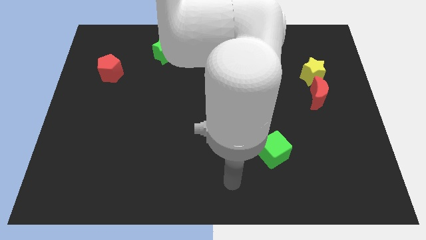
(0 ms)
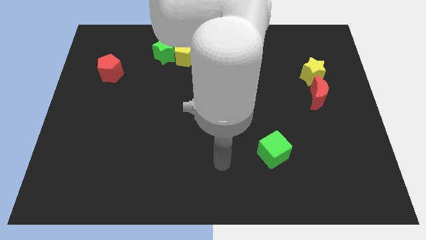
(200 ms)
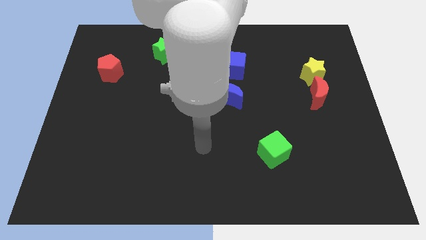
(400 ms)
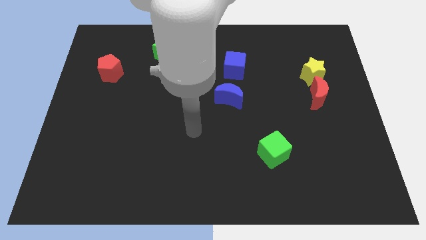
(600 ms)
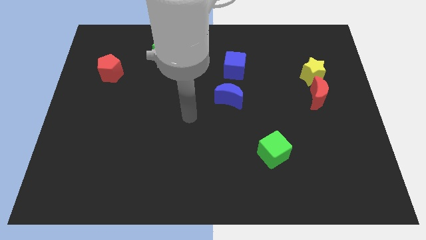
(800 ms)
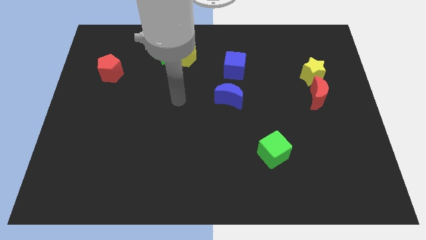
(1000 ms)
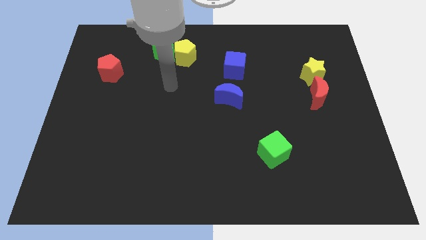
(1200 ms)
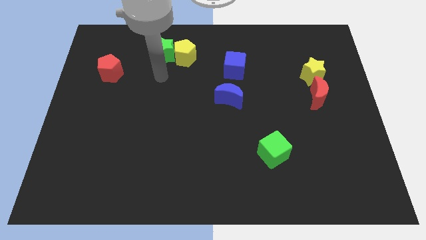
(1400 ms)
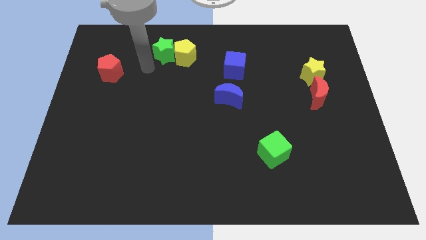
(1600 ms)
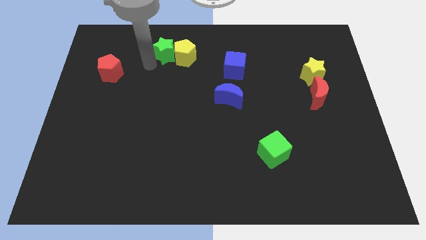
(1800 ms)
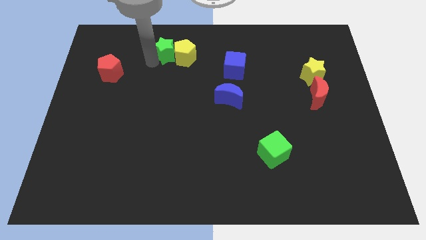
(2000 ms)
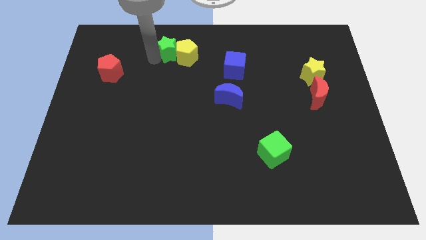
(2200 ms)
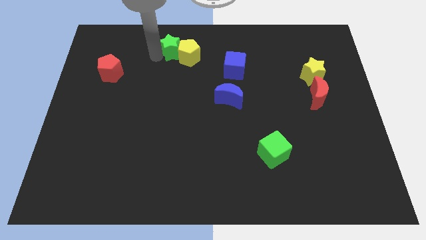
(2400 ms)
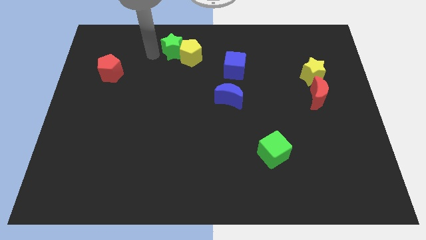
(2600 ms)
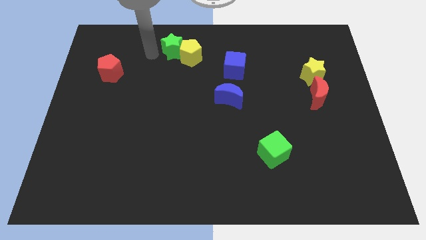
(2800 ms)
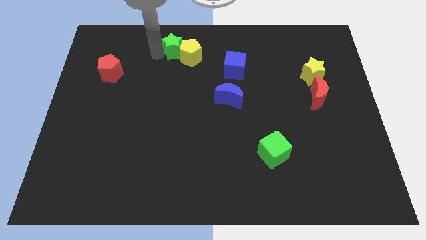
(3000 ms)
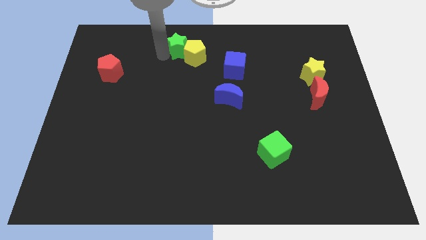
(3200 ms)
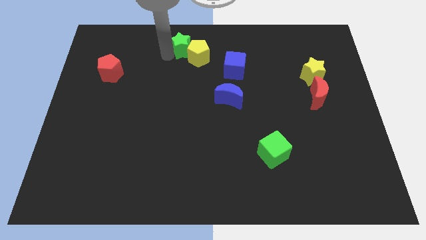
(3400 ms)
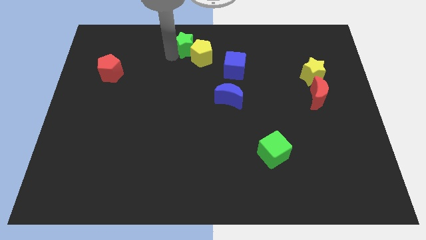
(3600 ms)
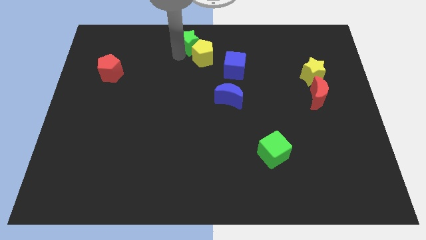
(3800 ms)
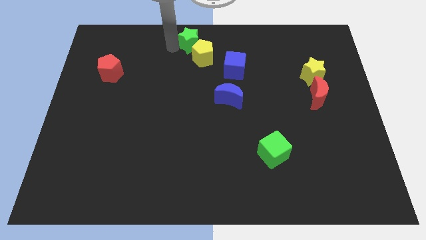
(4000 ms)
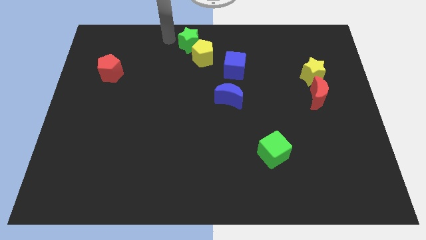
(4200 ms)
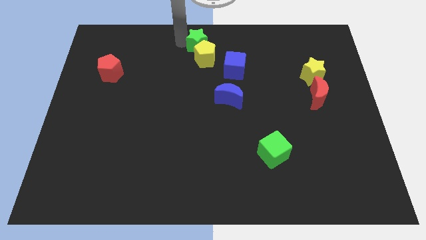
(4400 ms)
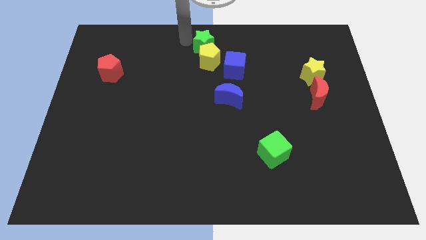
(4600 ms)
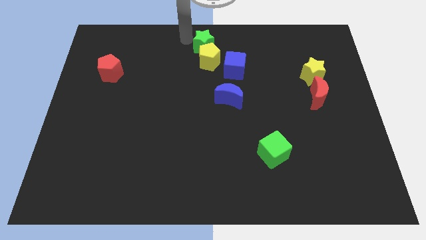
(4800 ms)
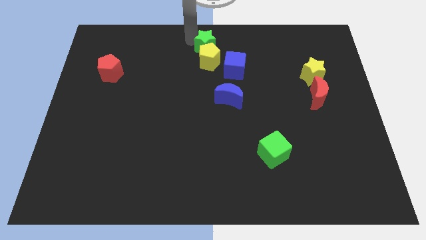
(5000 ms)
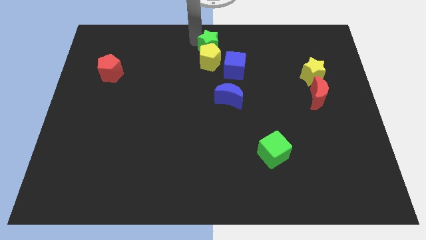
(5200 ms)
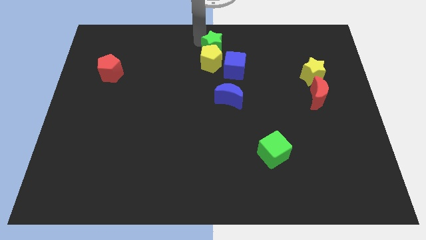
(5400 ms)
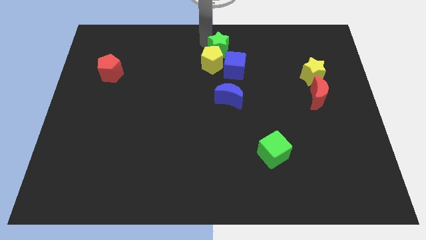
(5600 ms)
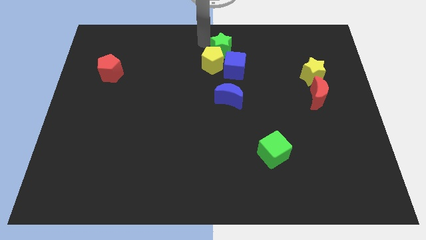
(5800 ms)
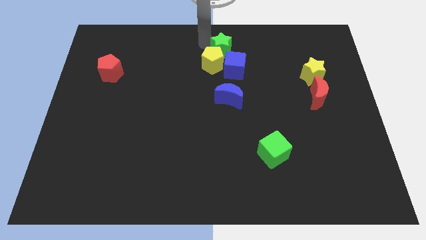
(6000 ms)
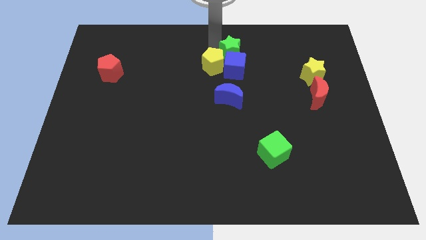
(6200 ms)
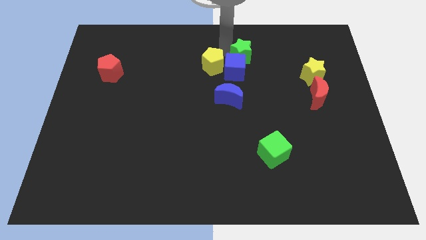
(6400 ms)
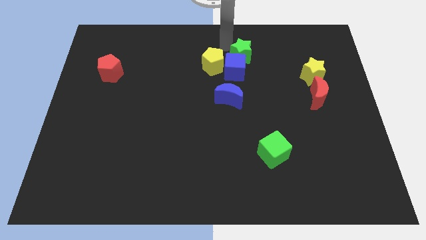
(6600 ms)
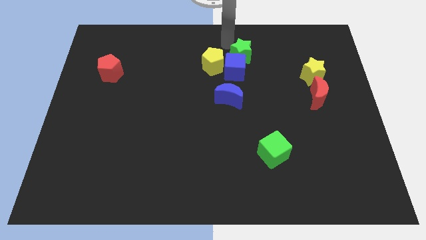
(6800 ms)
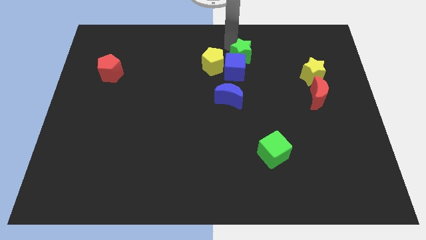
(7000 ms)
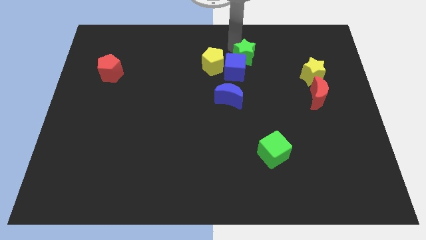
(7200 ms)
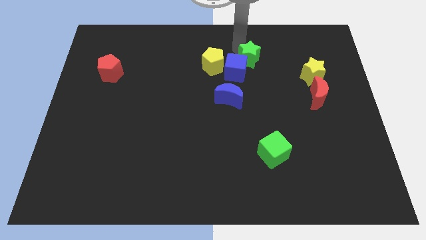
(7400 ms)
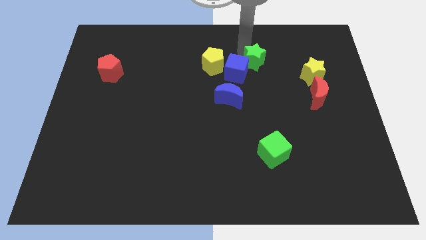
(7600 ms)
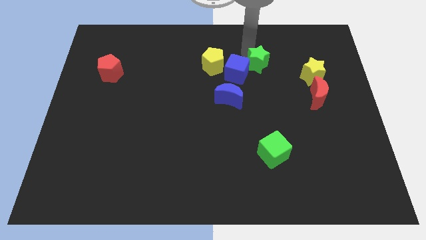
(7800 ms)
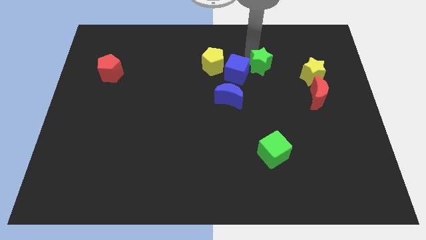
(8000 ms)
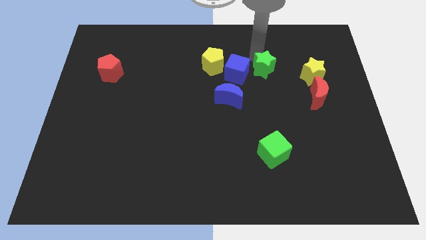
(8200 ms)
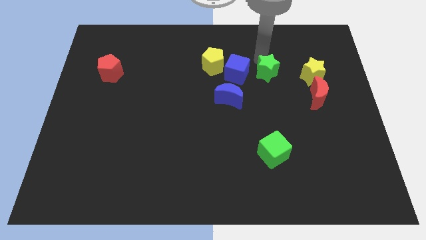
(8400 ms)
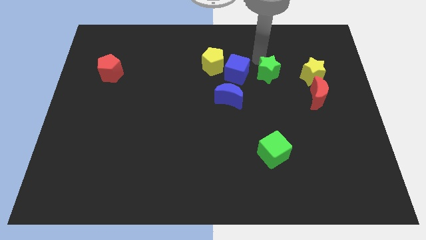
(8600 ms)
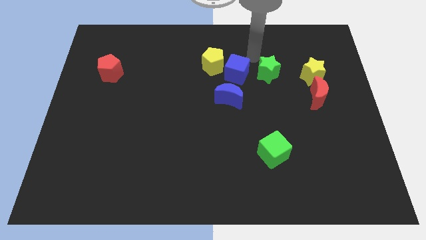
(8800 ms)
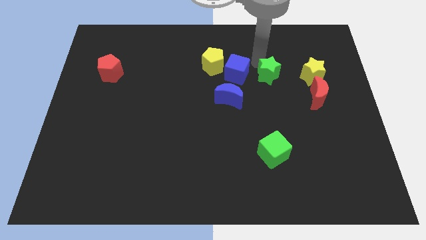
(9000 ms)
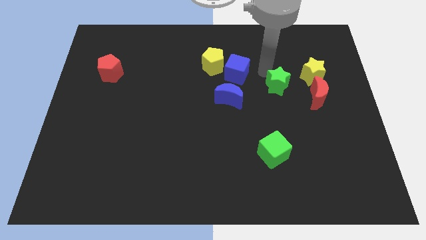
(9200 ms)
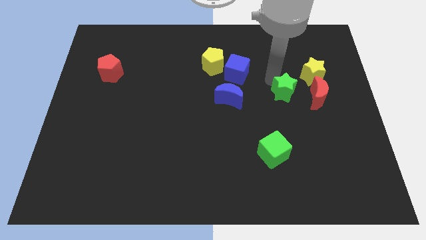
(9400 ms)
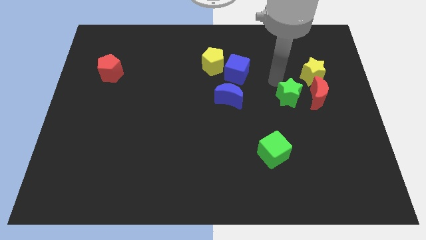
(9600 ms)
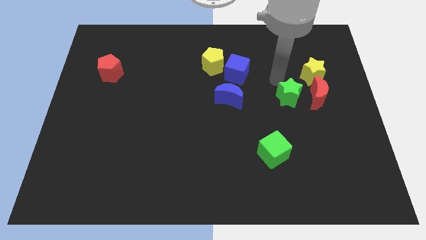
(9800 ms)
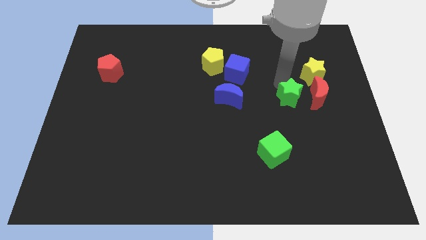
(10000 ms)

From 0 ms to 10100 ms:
slide the green star to the bottom left of the red moon

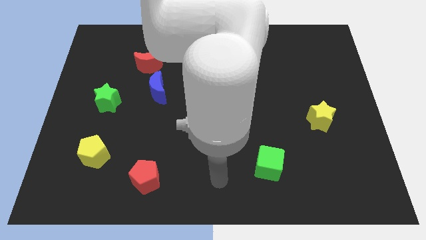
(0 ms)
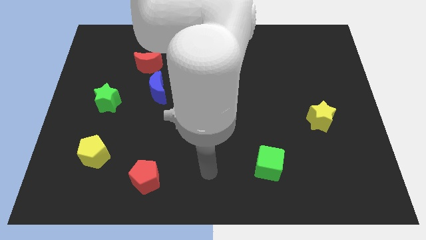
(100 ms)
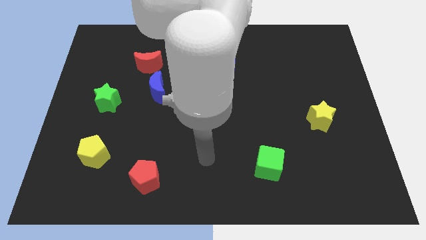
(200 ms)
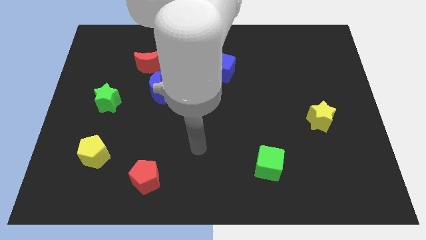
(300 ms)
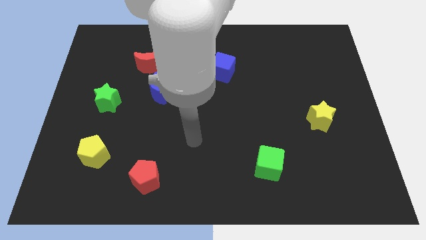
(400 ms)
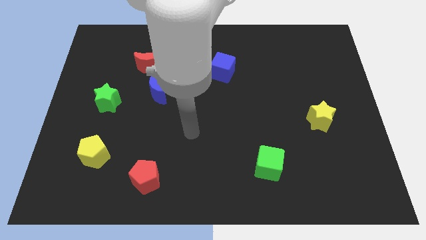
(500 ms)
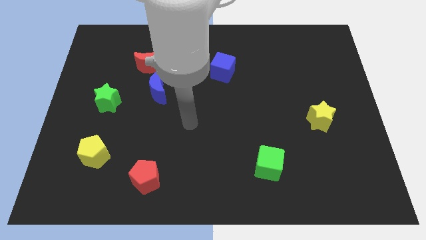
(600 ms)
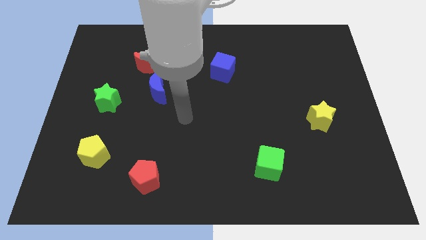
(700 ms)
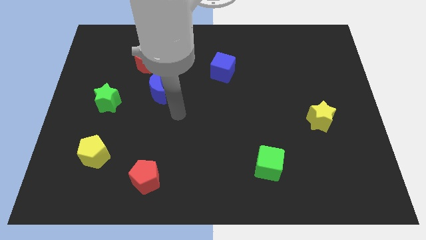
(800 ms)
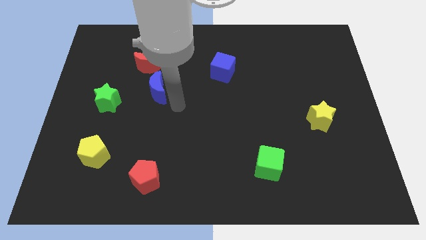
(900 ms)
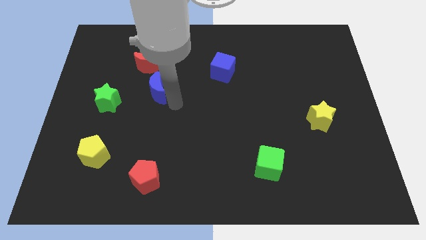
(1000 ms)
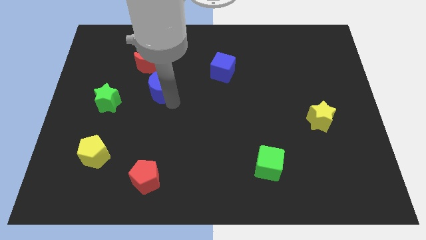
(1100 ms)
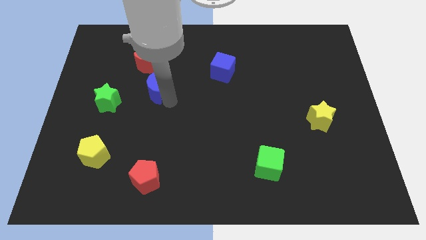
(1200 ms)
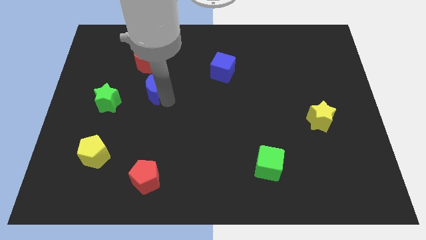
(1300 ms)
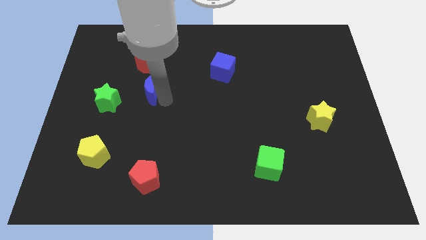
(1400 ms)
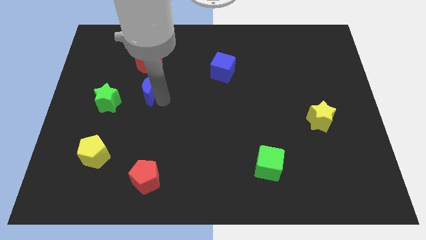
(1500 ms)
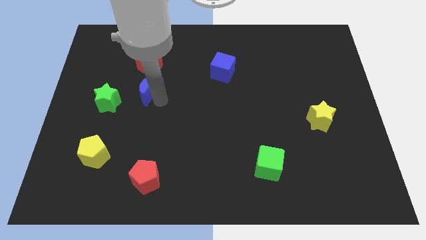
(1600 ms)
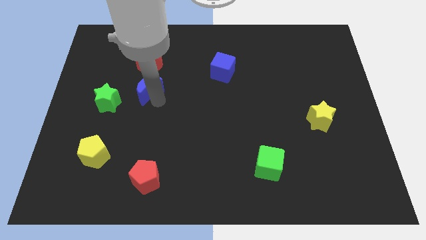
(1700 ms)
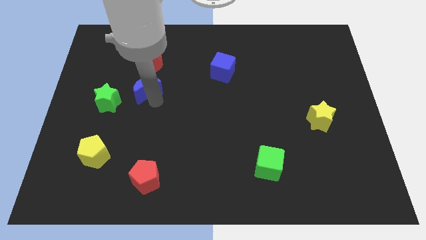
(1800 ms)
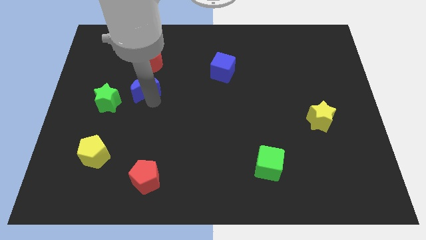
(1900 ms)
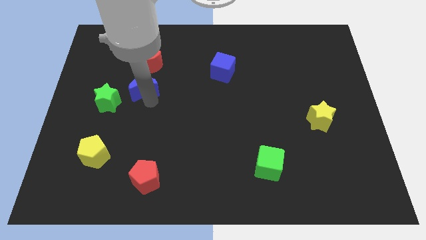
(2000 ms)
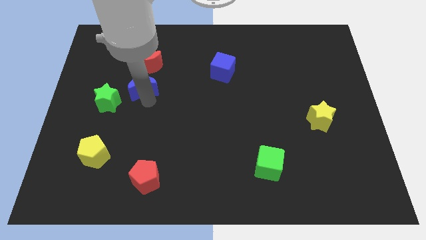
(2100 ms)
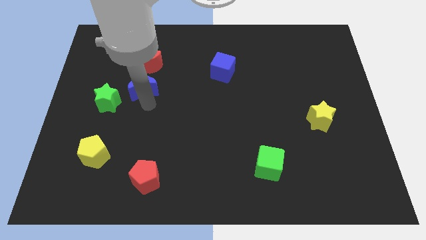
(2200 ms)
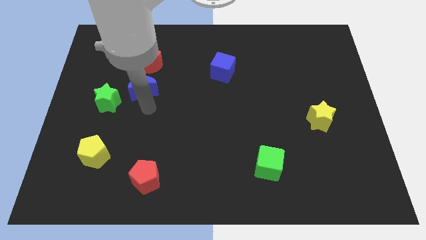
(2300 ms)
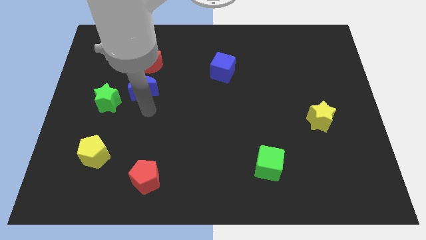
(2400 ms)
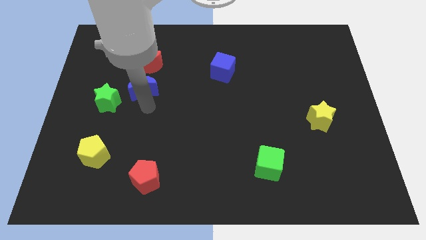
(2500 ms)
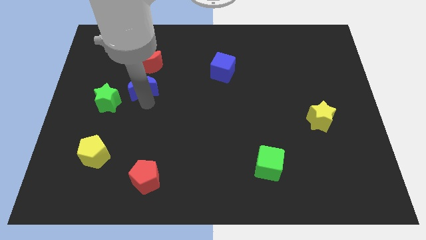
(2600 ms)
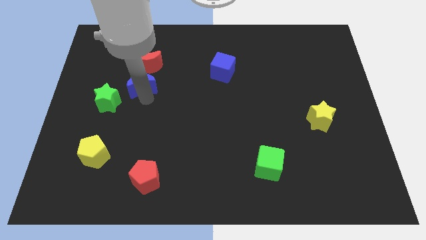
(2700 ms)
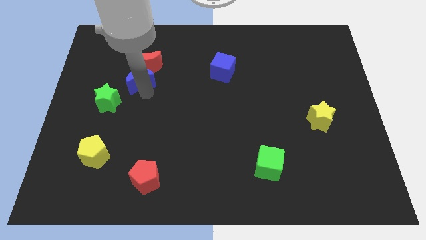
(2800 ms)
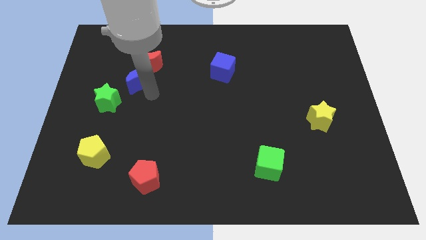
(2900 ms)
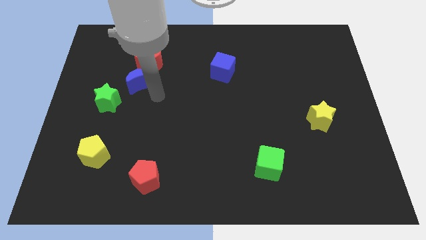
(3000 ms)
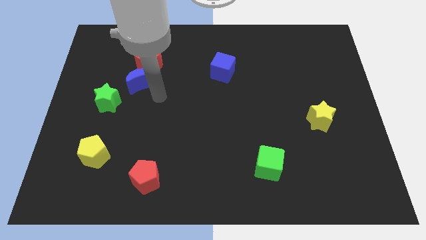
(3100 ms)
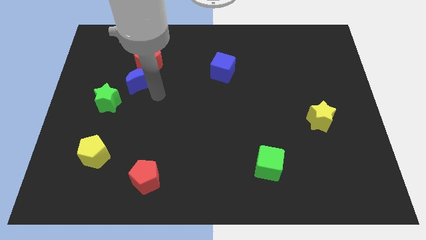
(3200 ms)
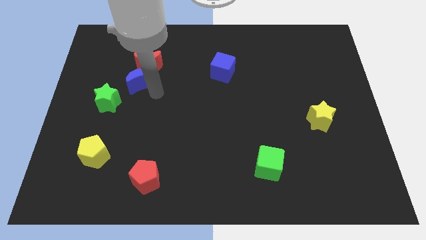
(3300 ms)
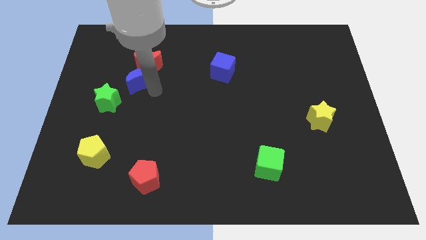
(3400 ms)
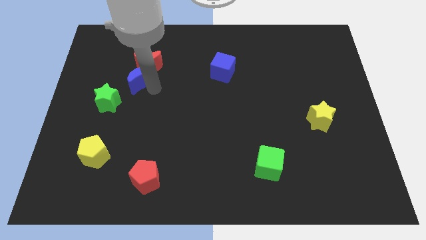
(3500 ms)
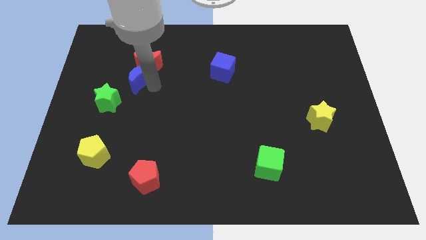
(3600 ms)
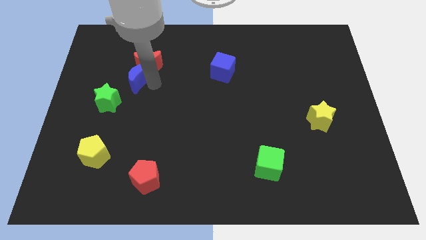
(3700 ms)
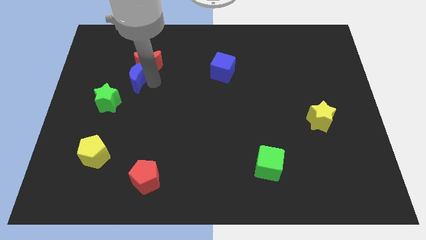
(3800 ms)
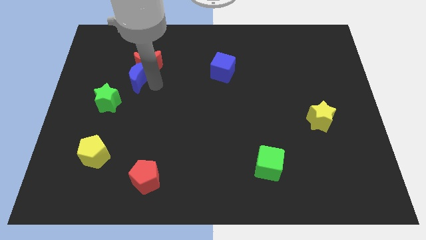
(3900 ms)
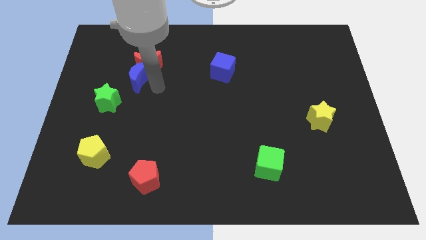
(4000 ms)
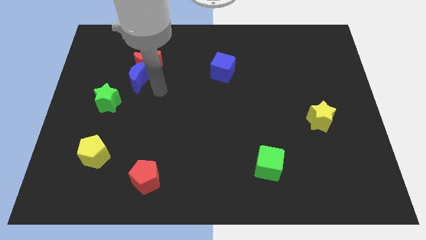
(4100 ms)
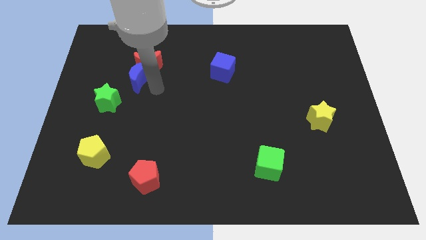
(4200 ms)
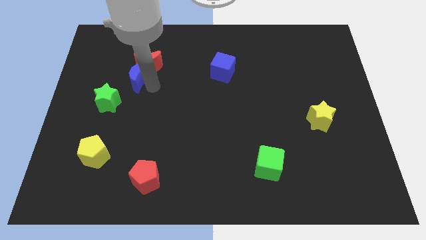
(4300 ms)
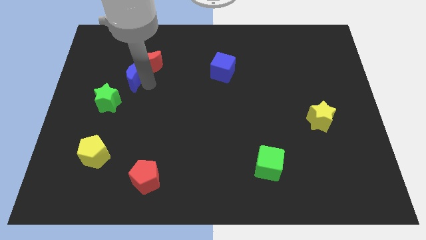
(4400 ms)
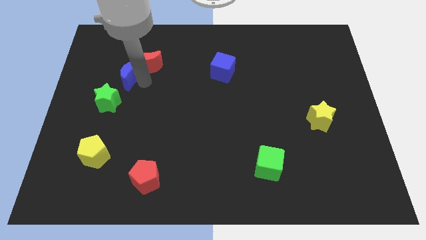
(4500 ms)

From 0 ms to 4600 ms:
put the blue moon left of the red moon
